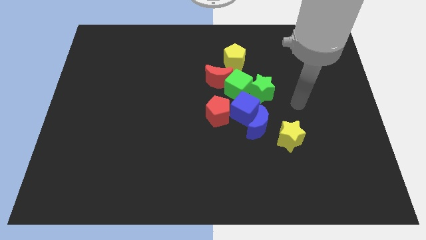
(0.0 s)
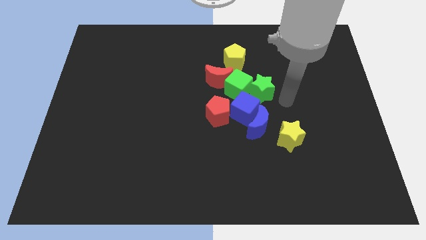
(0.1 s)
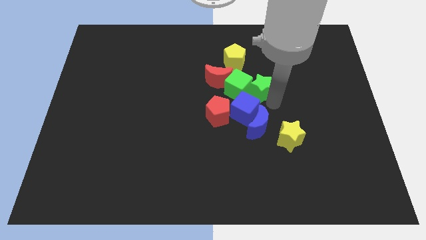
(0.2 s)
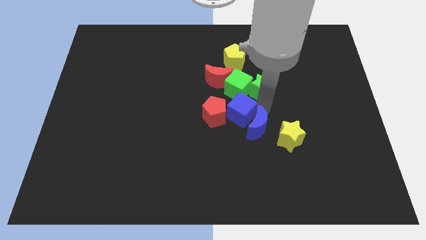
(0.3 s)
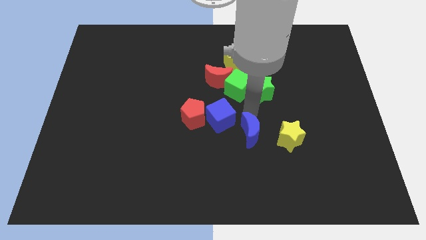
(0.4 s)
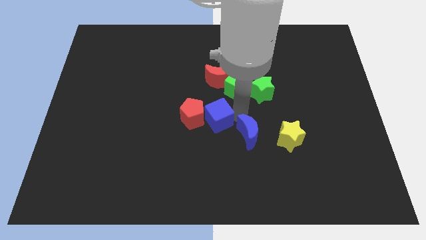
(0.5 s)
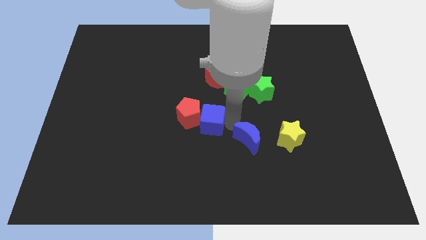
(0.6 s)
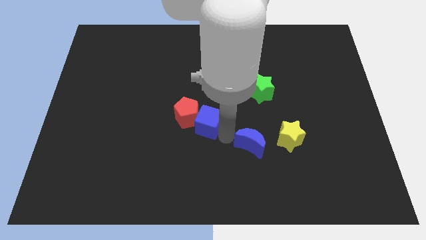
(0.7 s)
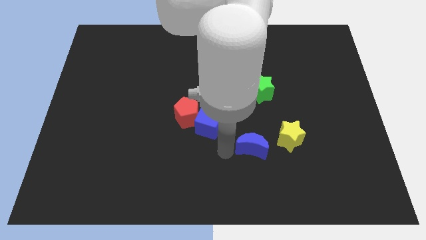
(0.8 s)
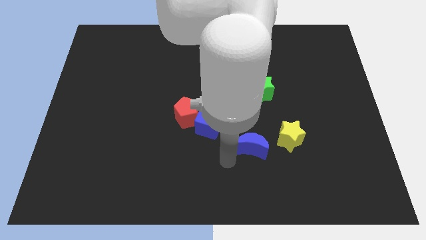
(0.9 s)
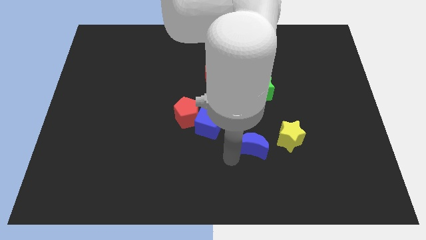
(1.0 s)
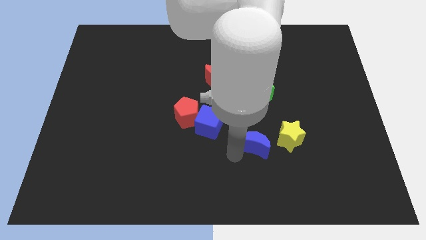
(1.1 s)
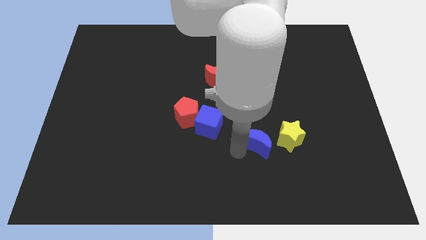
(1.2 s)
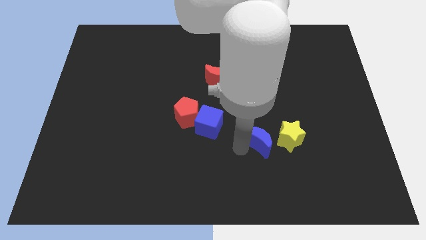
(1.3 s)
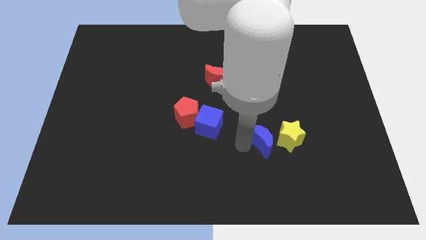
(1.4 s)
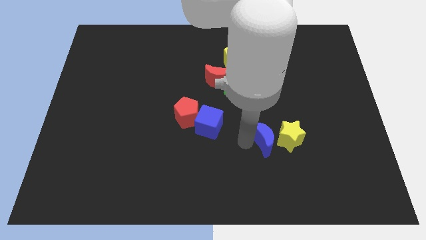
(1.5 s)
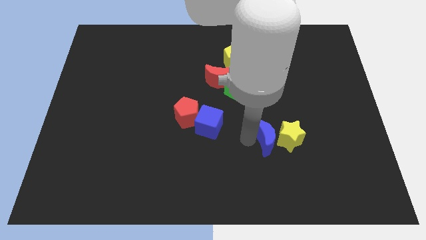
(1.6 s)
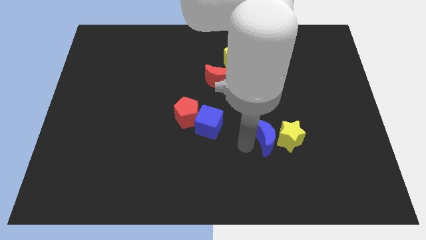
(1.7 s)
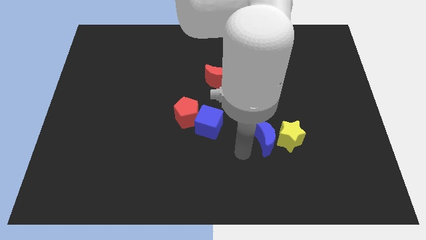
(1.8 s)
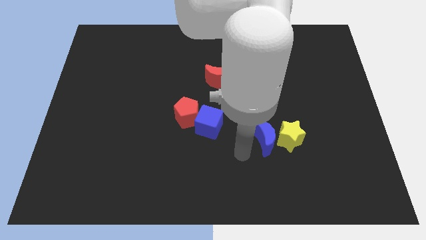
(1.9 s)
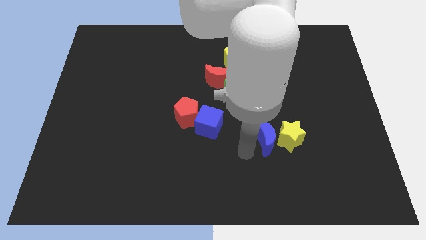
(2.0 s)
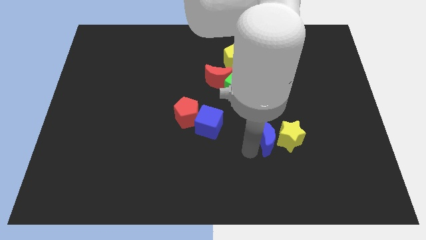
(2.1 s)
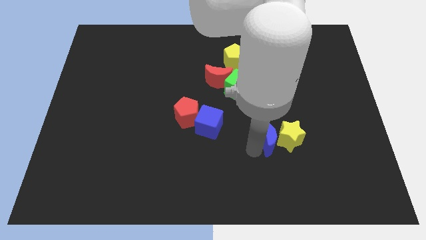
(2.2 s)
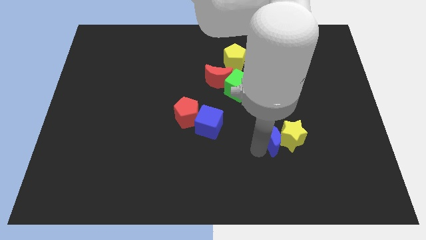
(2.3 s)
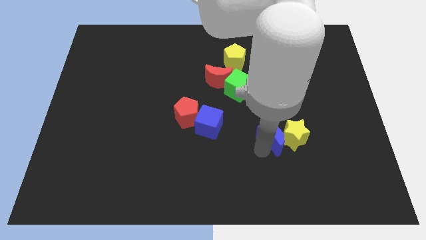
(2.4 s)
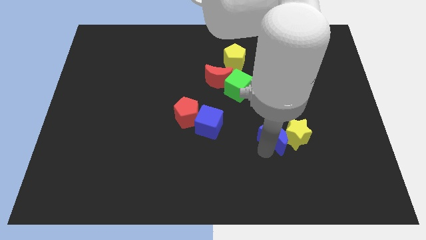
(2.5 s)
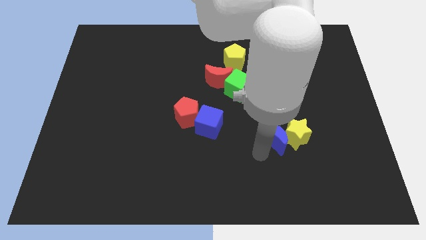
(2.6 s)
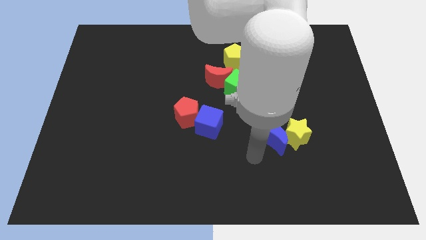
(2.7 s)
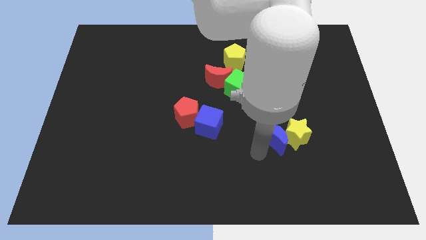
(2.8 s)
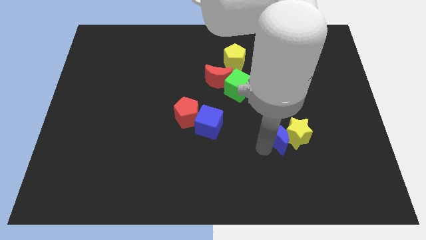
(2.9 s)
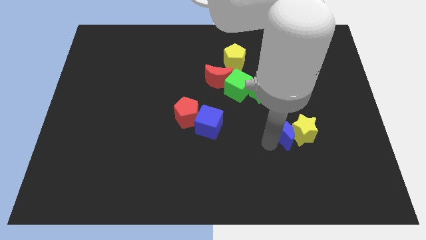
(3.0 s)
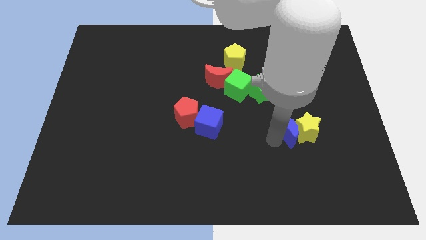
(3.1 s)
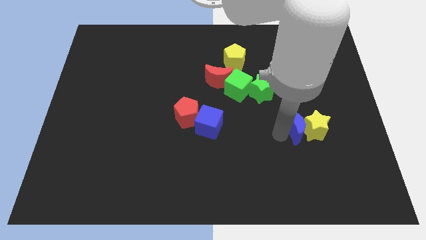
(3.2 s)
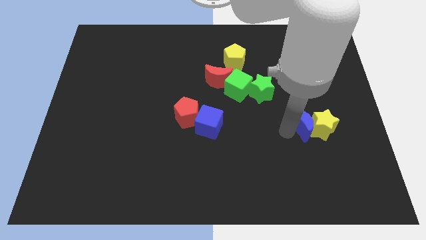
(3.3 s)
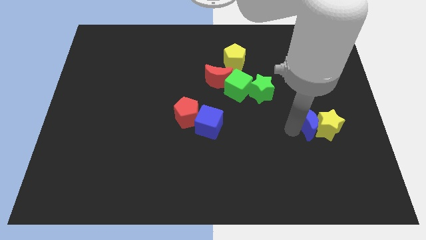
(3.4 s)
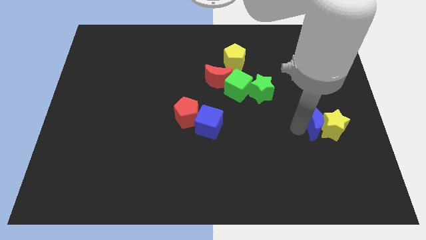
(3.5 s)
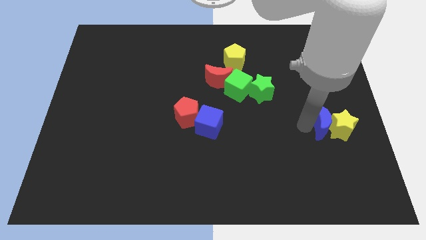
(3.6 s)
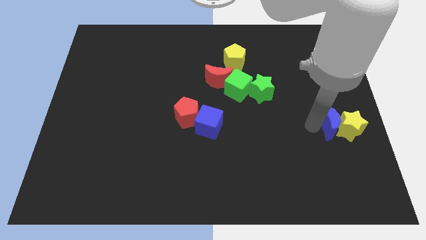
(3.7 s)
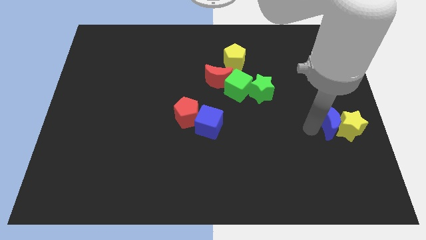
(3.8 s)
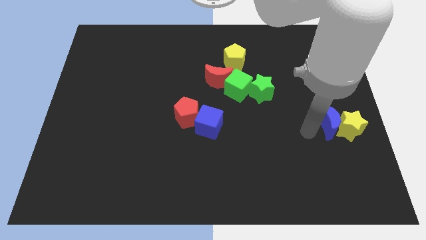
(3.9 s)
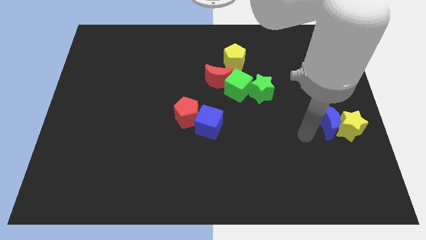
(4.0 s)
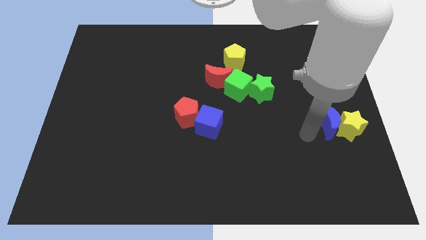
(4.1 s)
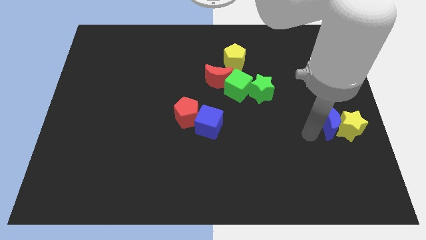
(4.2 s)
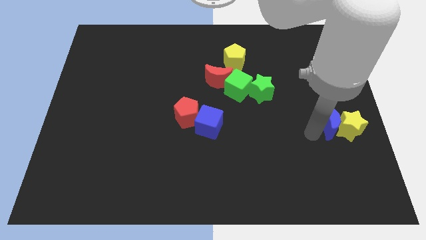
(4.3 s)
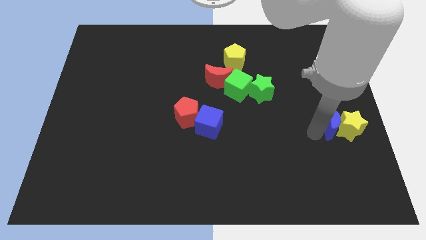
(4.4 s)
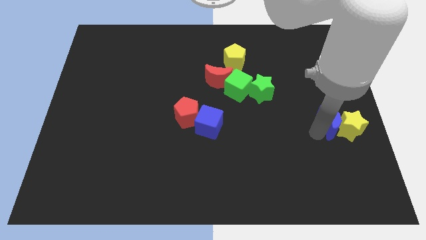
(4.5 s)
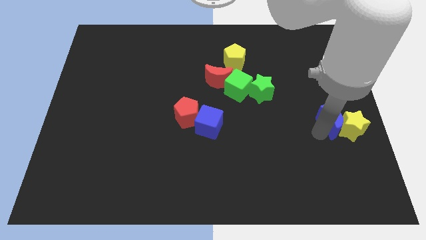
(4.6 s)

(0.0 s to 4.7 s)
put the blue moon to the center right

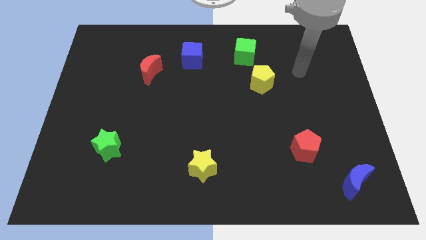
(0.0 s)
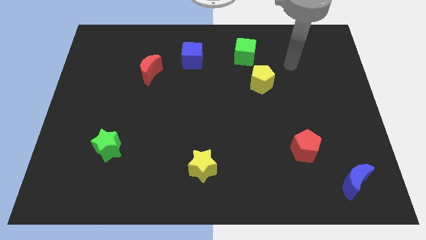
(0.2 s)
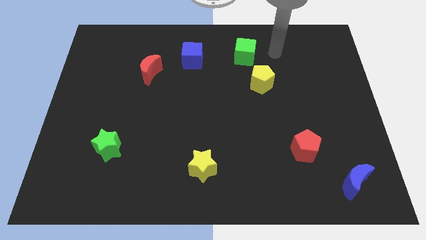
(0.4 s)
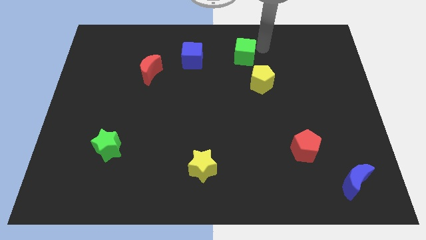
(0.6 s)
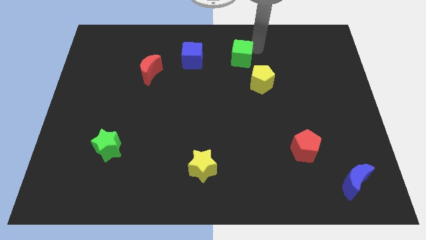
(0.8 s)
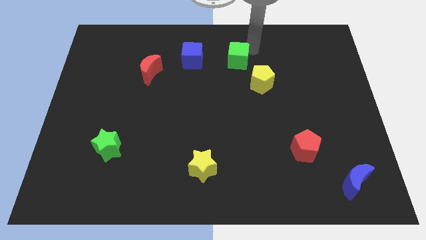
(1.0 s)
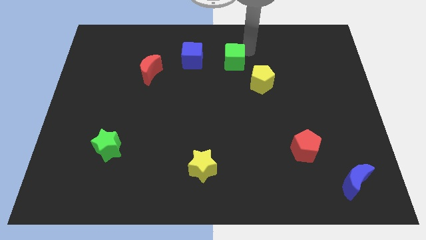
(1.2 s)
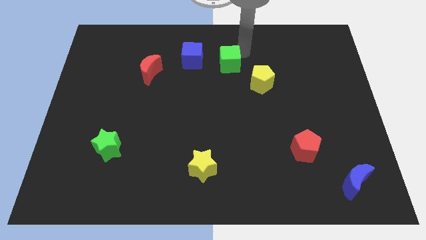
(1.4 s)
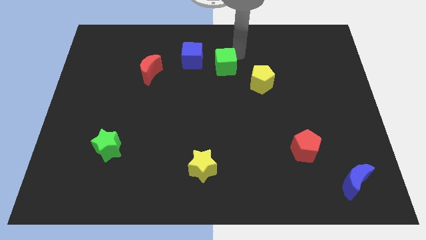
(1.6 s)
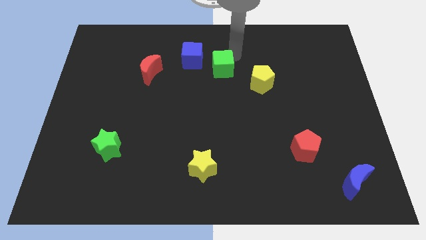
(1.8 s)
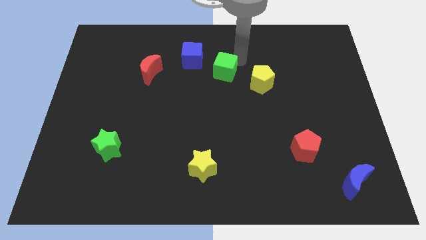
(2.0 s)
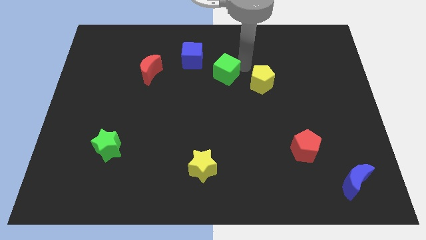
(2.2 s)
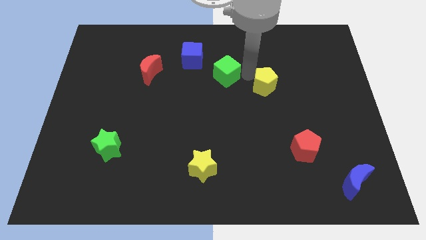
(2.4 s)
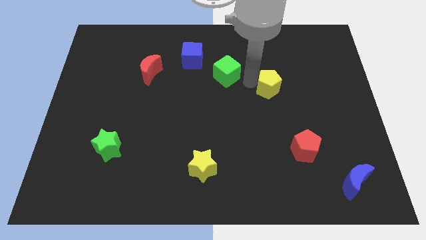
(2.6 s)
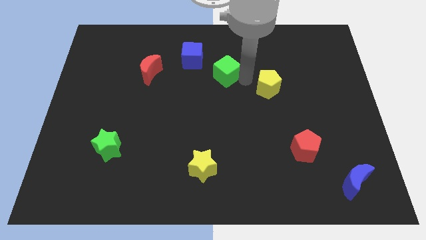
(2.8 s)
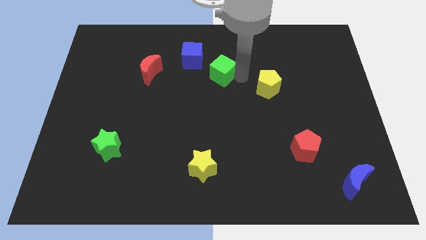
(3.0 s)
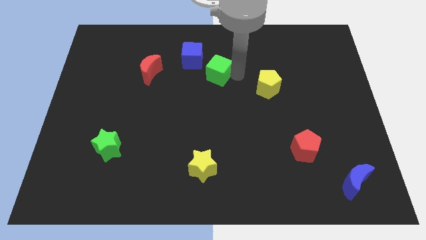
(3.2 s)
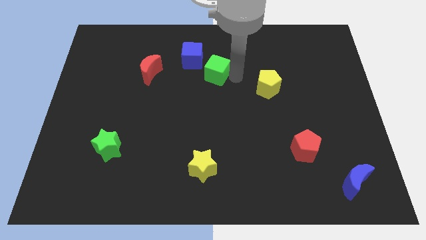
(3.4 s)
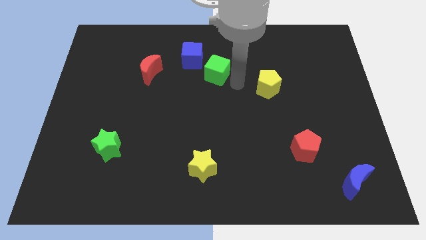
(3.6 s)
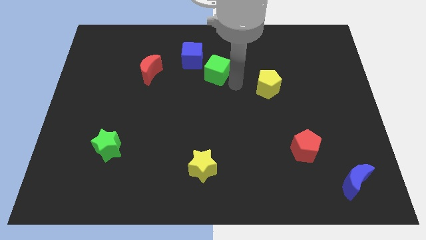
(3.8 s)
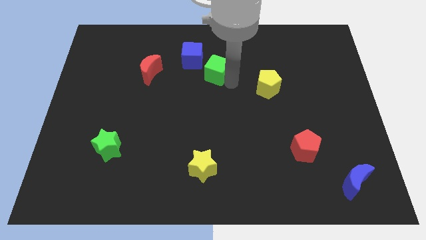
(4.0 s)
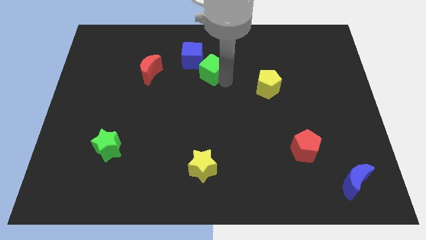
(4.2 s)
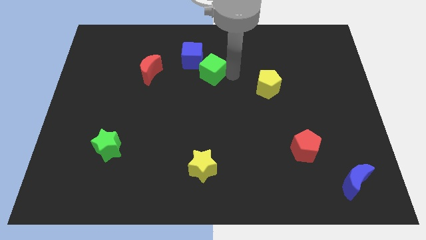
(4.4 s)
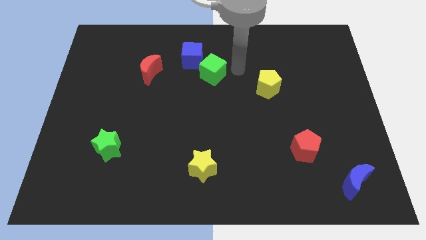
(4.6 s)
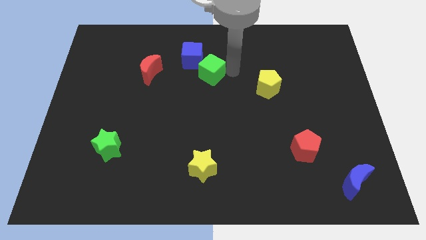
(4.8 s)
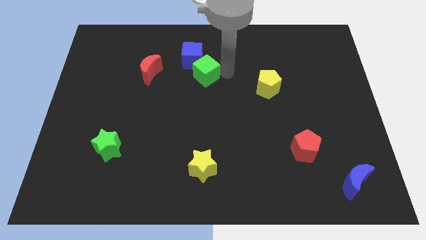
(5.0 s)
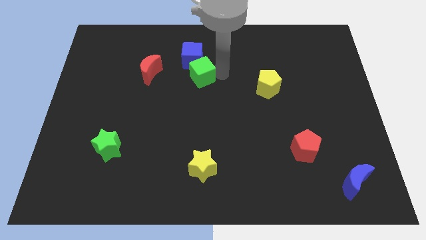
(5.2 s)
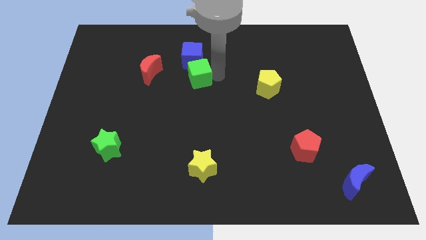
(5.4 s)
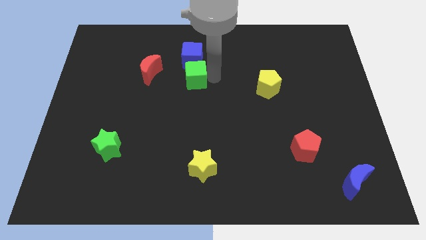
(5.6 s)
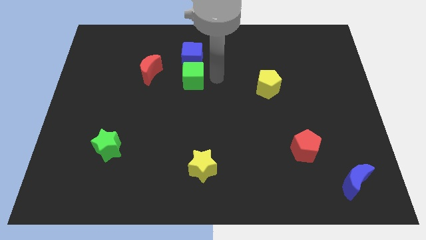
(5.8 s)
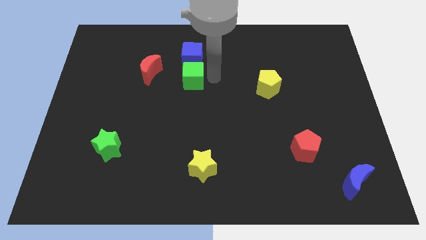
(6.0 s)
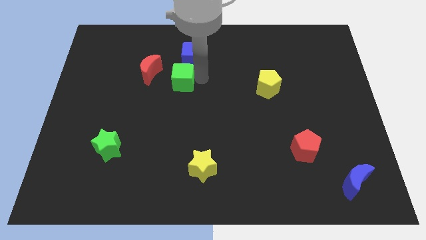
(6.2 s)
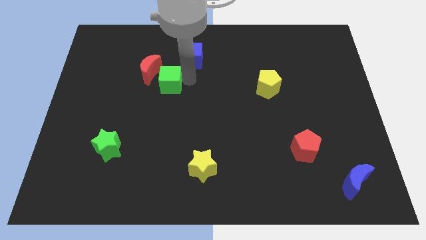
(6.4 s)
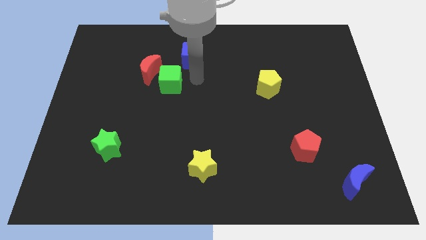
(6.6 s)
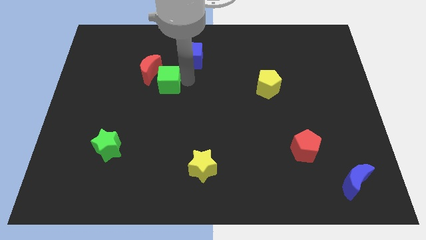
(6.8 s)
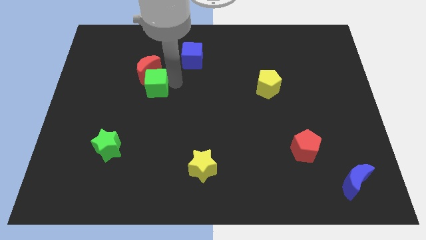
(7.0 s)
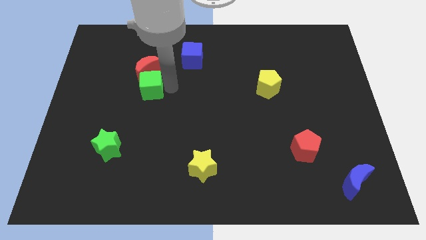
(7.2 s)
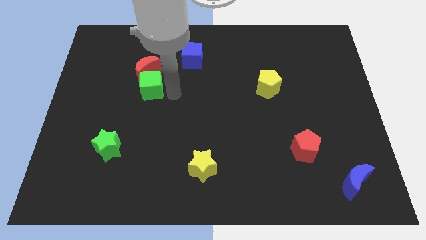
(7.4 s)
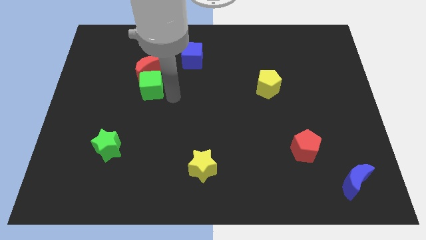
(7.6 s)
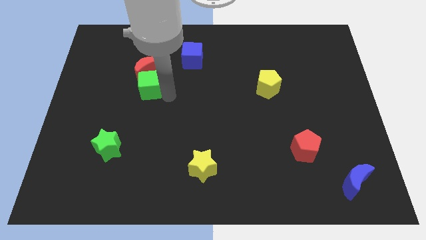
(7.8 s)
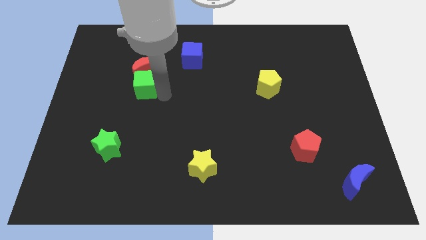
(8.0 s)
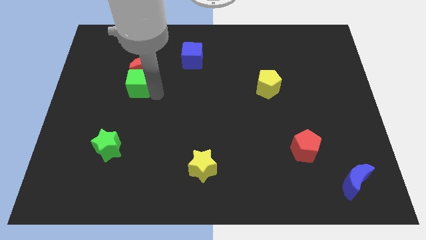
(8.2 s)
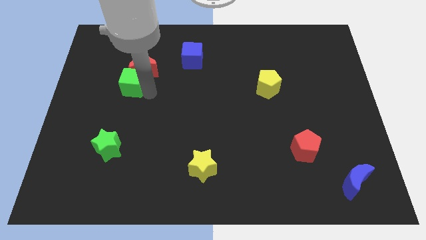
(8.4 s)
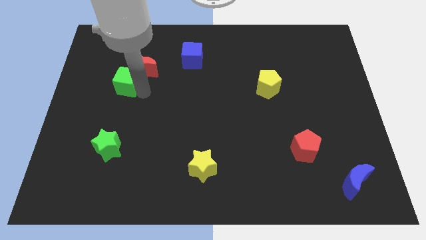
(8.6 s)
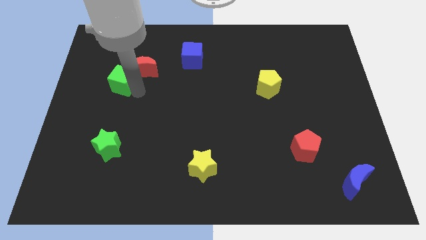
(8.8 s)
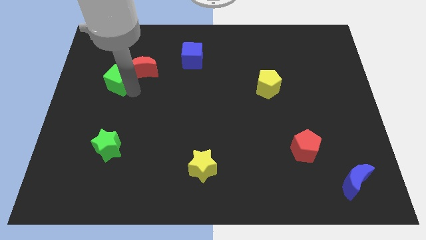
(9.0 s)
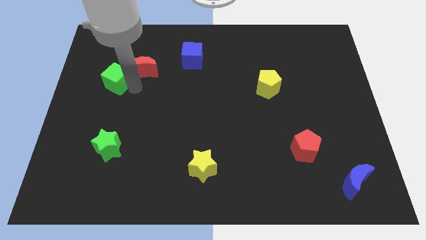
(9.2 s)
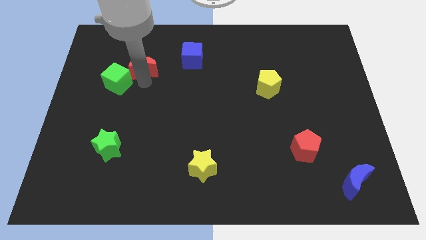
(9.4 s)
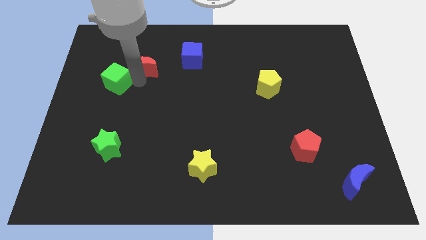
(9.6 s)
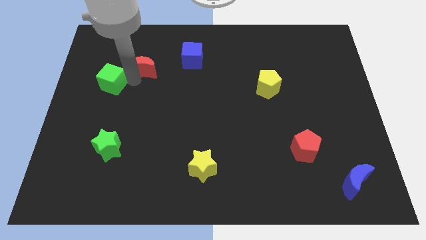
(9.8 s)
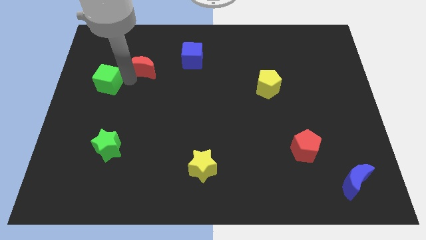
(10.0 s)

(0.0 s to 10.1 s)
slide the green cube to the center left
